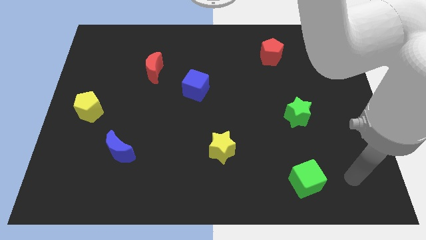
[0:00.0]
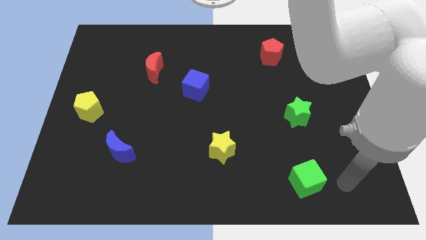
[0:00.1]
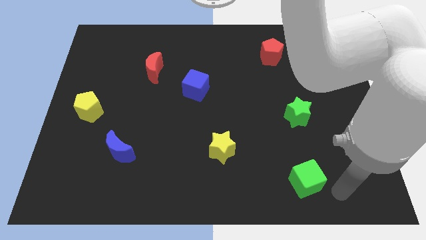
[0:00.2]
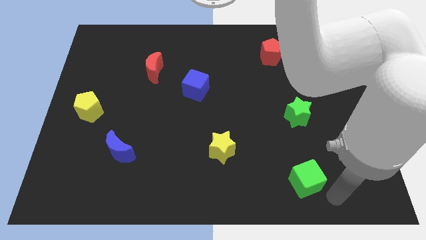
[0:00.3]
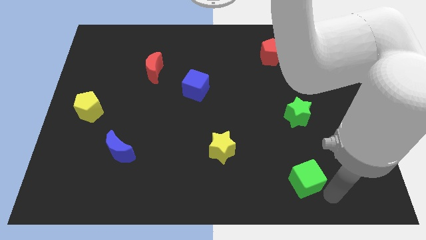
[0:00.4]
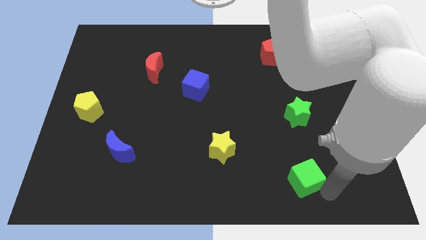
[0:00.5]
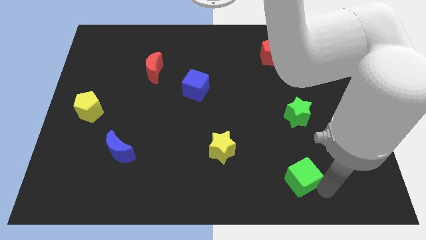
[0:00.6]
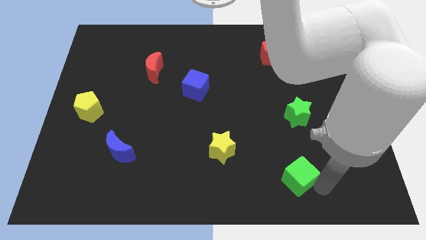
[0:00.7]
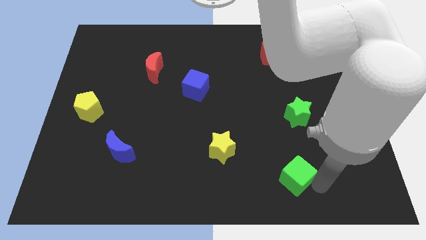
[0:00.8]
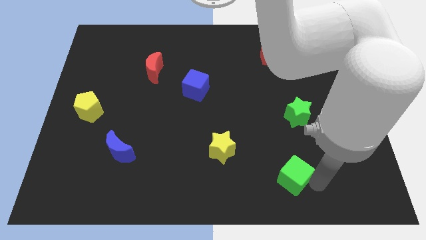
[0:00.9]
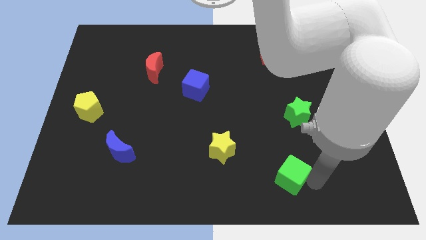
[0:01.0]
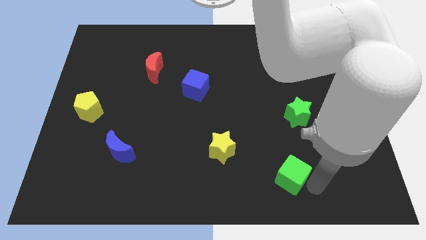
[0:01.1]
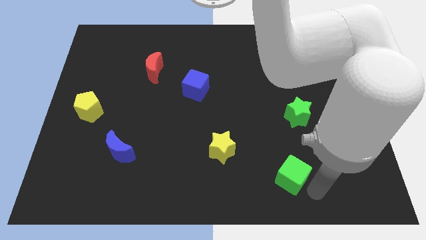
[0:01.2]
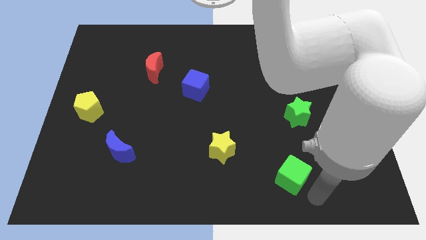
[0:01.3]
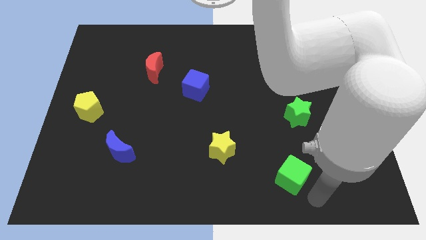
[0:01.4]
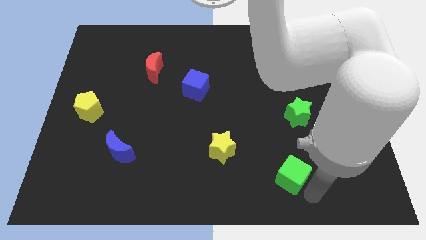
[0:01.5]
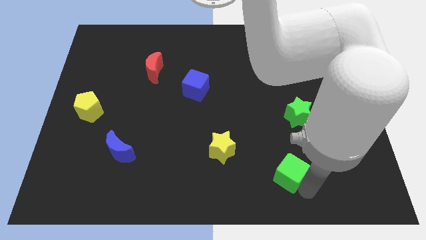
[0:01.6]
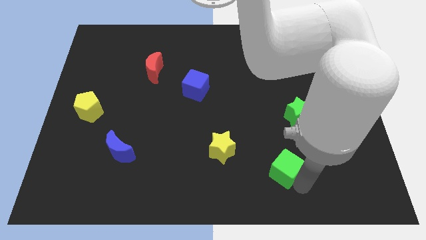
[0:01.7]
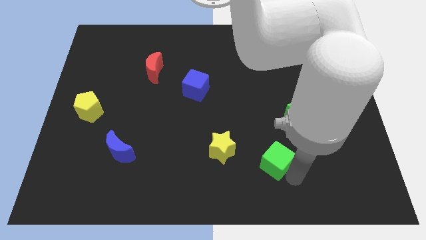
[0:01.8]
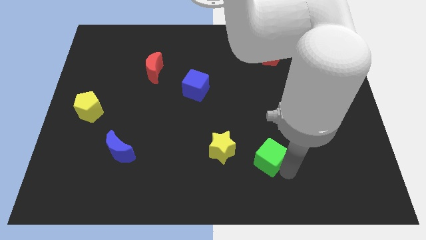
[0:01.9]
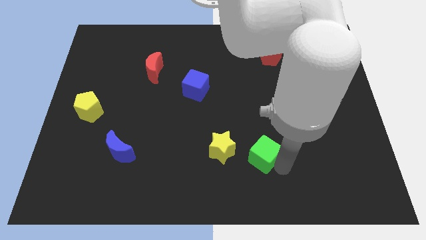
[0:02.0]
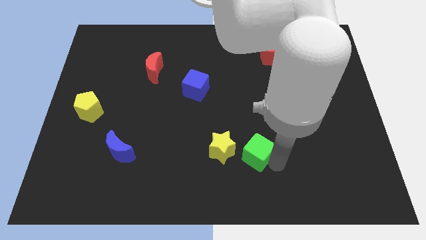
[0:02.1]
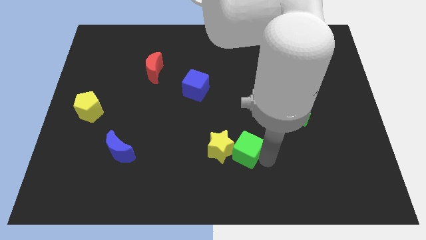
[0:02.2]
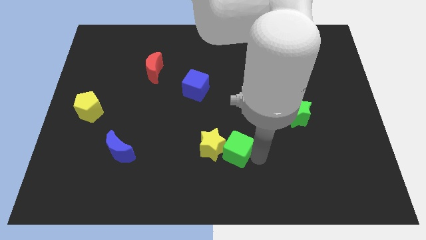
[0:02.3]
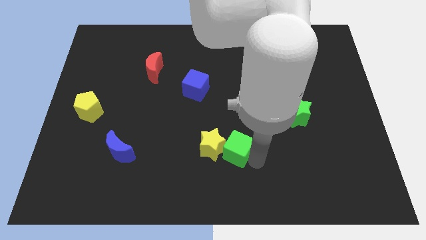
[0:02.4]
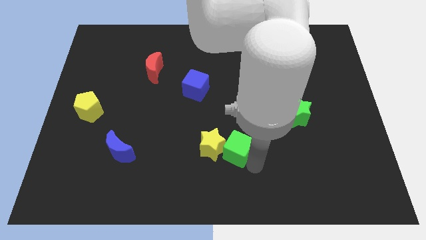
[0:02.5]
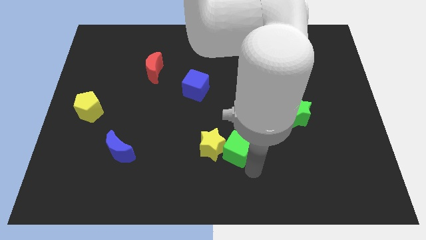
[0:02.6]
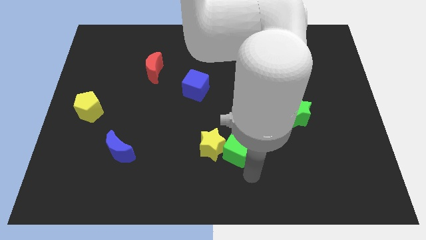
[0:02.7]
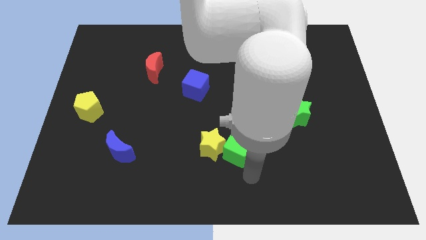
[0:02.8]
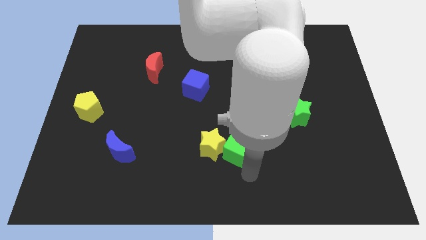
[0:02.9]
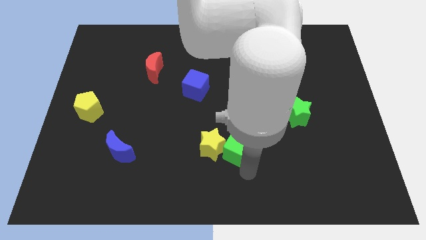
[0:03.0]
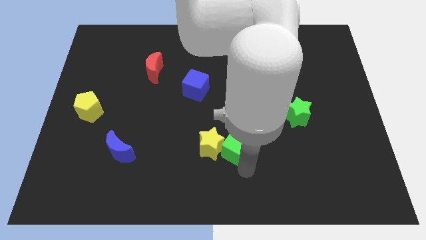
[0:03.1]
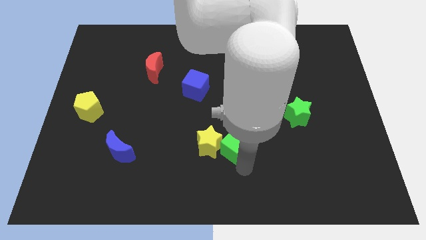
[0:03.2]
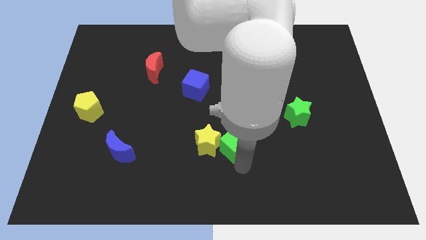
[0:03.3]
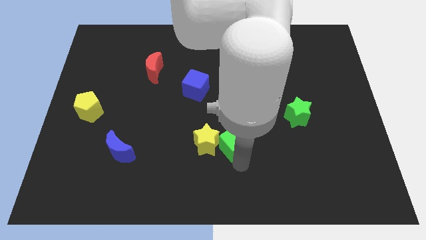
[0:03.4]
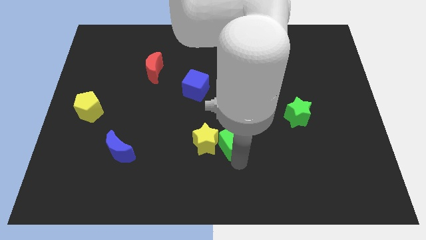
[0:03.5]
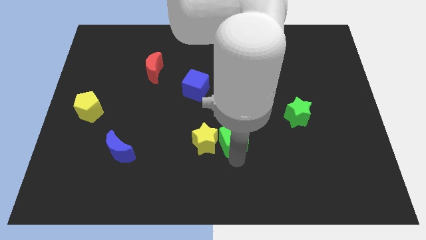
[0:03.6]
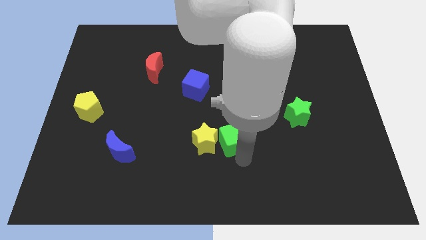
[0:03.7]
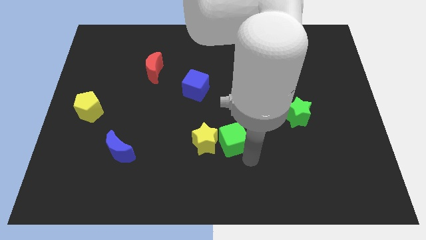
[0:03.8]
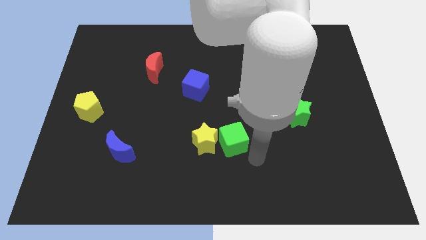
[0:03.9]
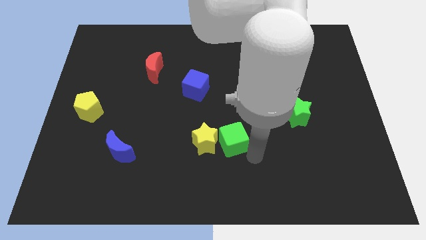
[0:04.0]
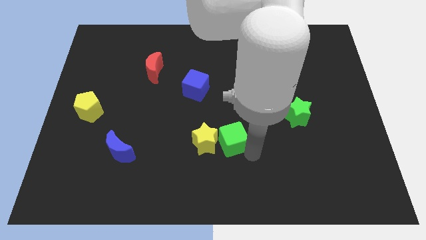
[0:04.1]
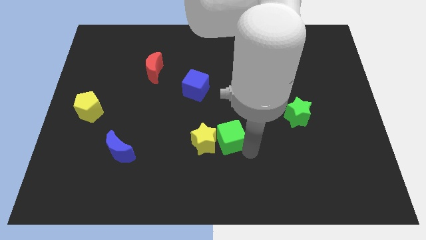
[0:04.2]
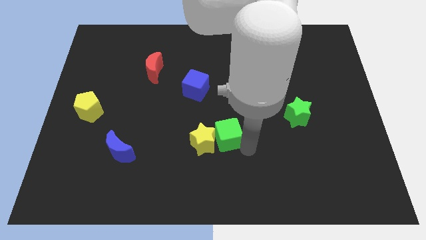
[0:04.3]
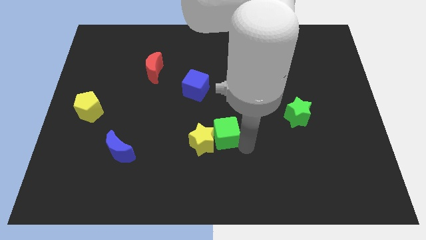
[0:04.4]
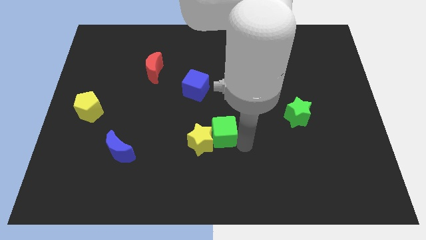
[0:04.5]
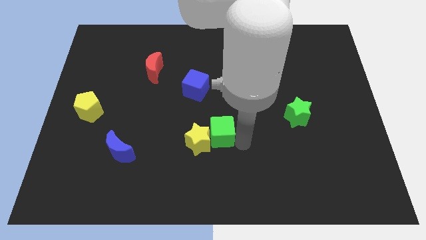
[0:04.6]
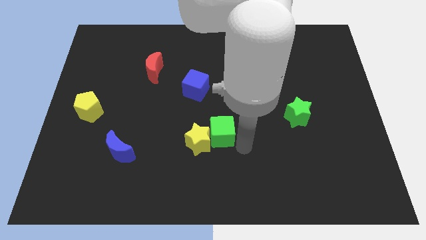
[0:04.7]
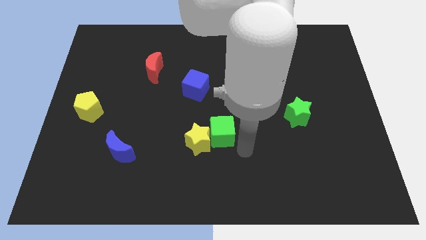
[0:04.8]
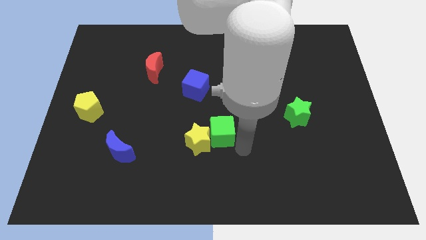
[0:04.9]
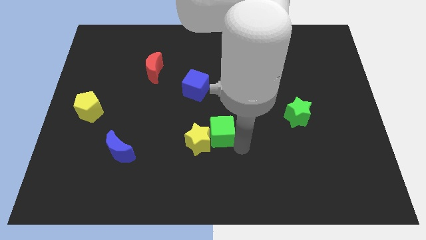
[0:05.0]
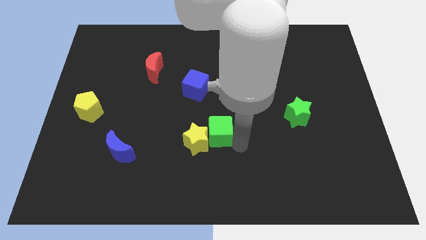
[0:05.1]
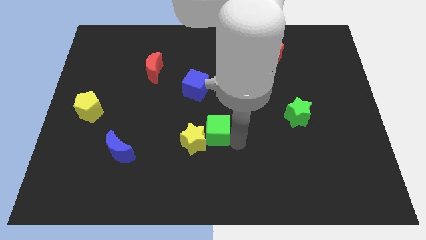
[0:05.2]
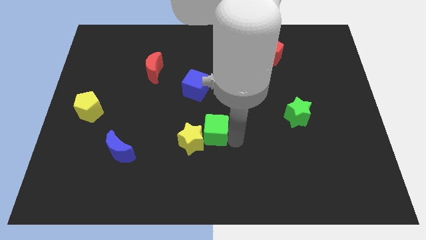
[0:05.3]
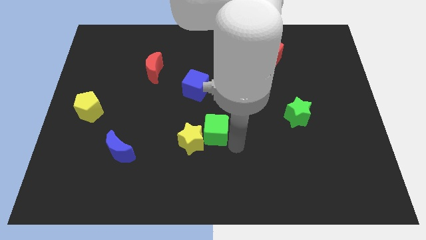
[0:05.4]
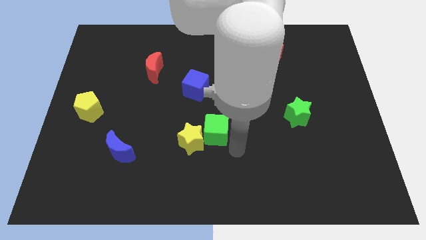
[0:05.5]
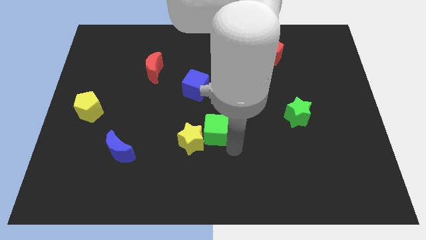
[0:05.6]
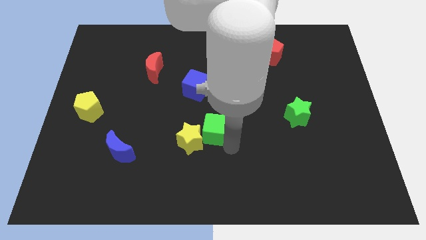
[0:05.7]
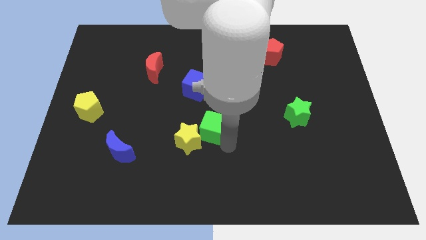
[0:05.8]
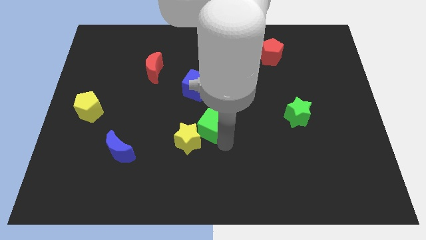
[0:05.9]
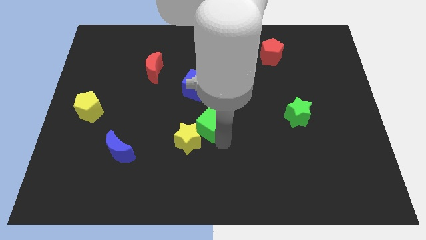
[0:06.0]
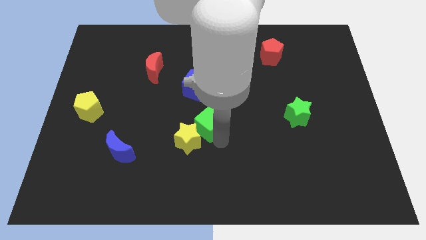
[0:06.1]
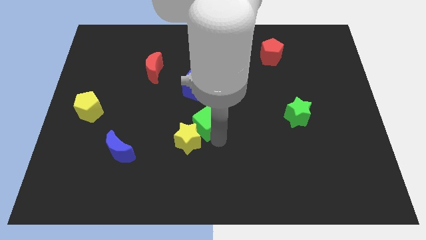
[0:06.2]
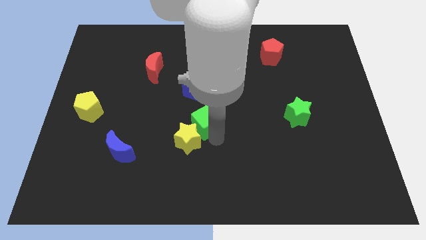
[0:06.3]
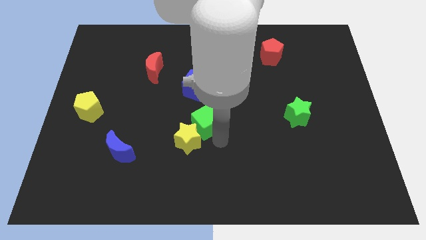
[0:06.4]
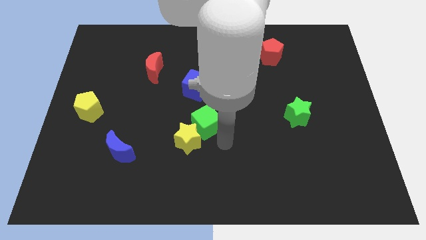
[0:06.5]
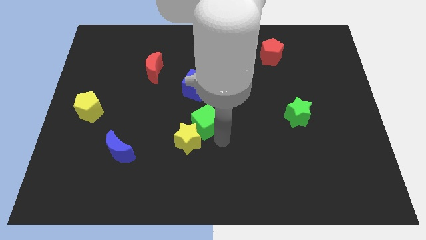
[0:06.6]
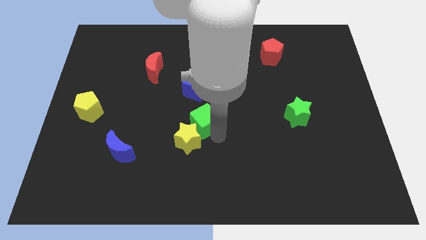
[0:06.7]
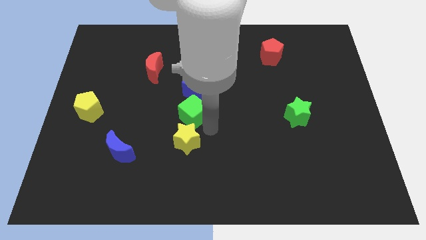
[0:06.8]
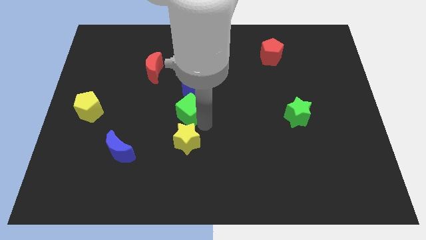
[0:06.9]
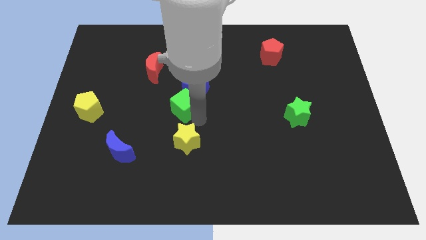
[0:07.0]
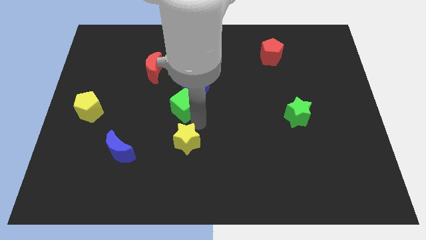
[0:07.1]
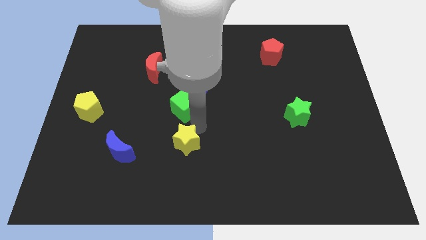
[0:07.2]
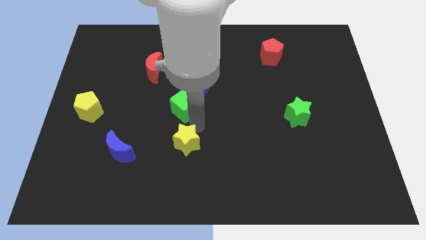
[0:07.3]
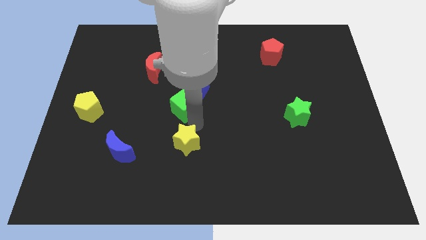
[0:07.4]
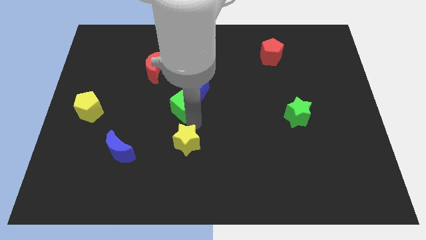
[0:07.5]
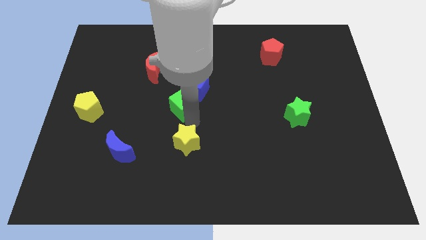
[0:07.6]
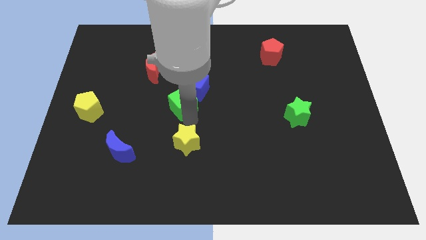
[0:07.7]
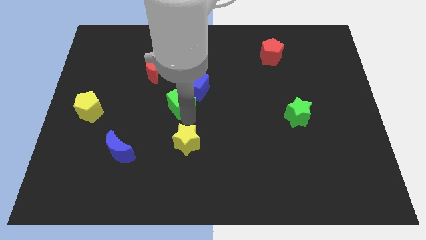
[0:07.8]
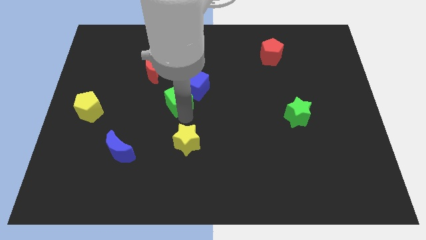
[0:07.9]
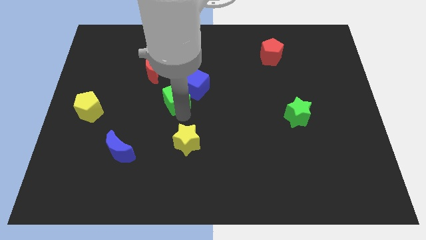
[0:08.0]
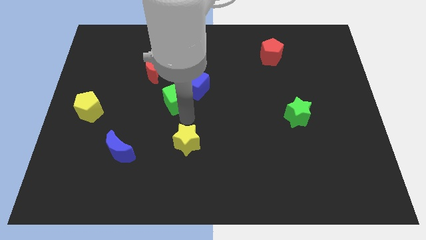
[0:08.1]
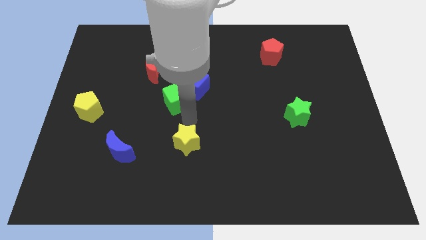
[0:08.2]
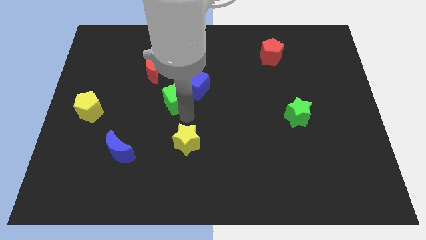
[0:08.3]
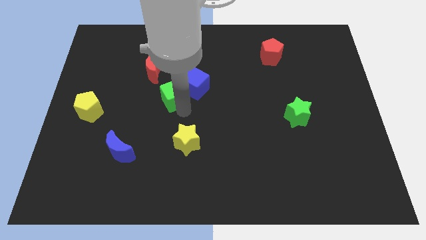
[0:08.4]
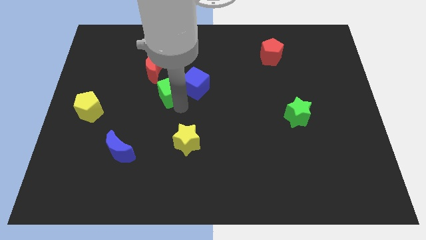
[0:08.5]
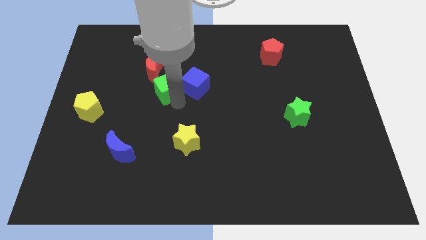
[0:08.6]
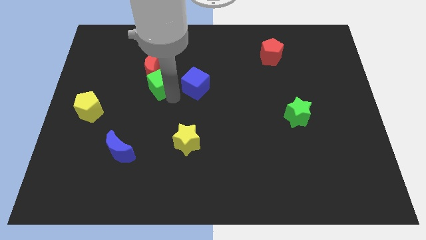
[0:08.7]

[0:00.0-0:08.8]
slide the green cube to the red moon
